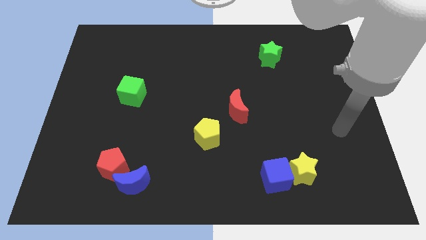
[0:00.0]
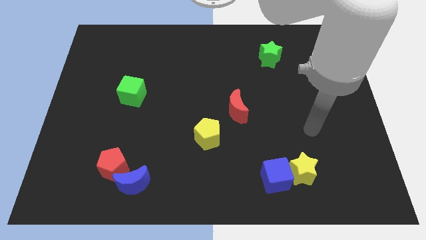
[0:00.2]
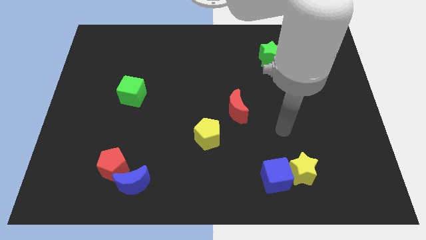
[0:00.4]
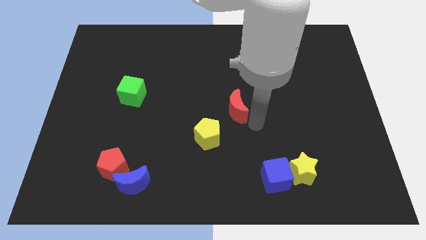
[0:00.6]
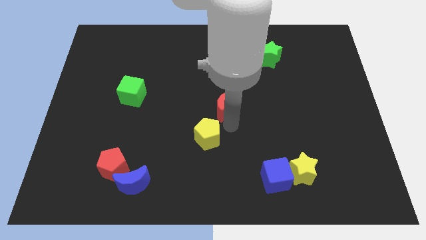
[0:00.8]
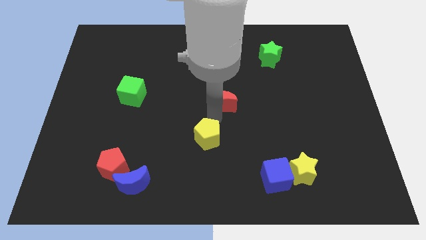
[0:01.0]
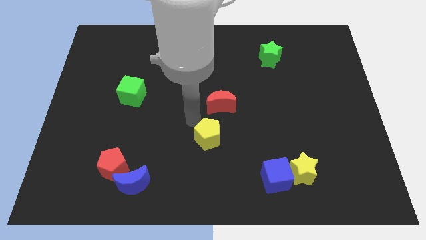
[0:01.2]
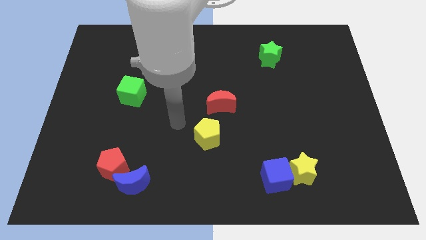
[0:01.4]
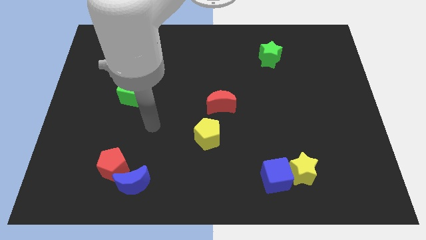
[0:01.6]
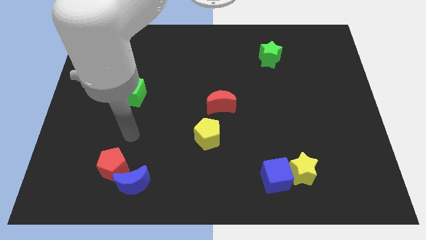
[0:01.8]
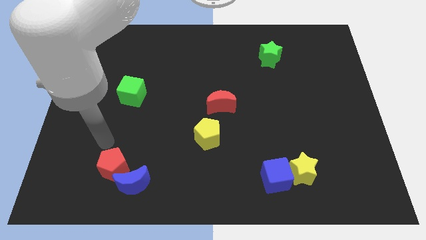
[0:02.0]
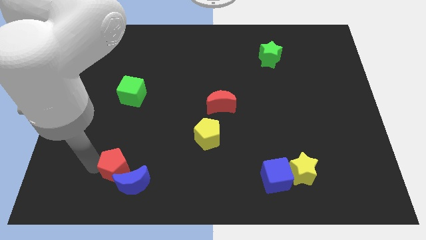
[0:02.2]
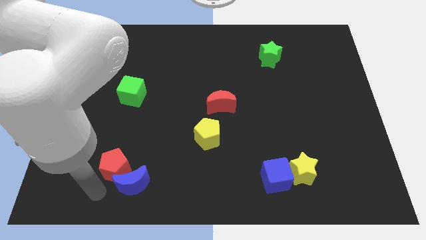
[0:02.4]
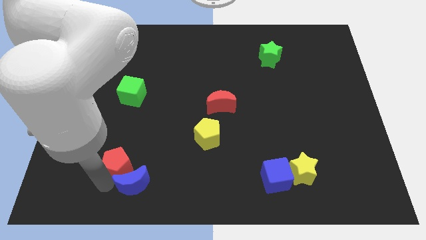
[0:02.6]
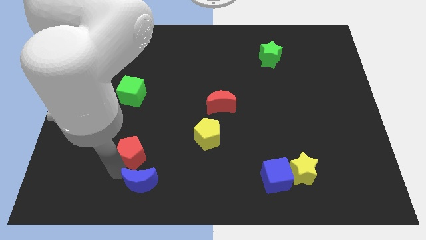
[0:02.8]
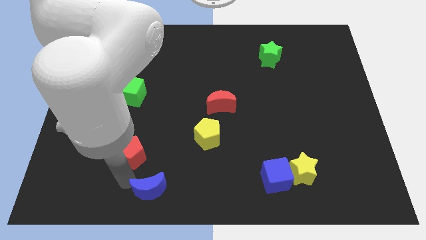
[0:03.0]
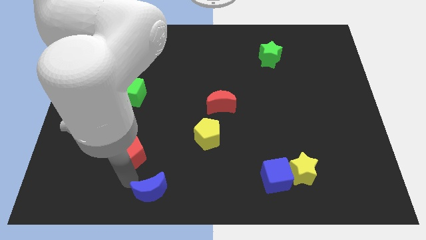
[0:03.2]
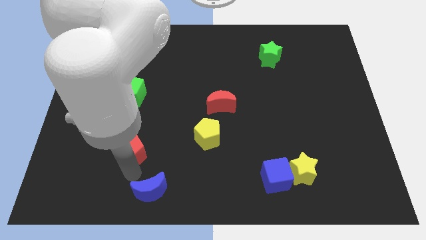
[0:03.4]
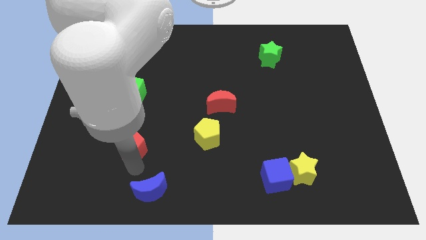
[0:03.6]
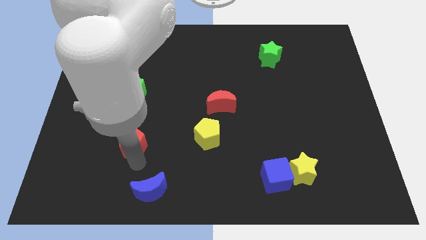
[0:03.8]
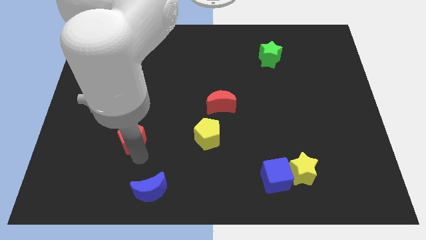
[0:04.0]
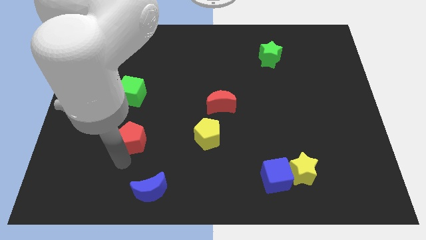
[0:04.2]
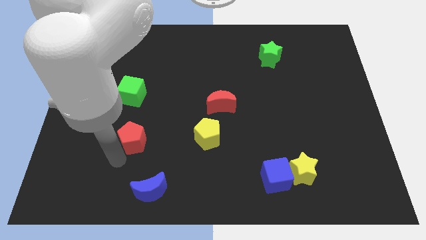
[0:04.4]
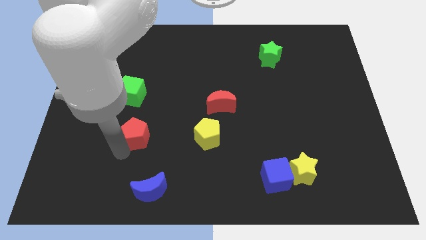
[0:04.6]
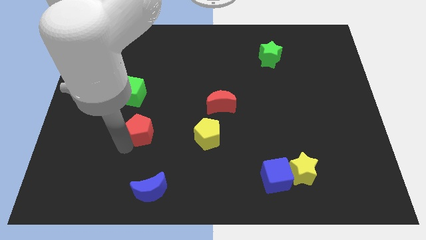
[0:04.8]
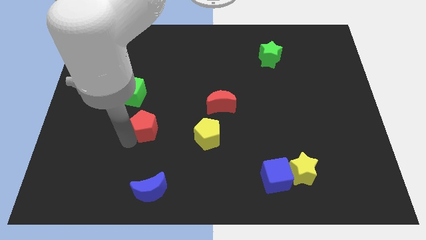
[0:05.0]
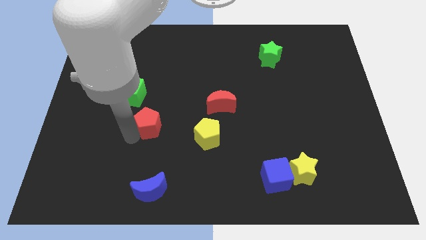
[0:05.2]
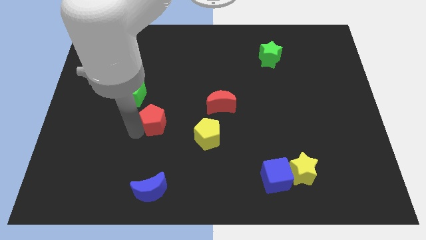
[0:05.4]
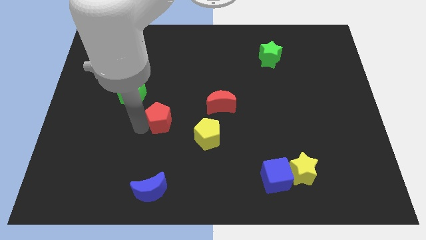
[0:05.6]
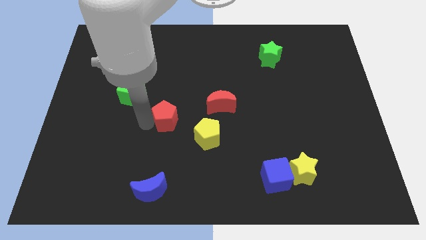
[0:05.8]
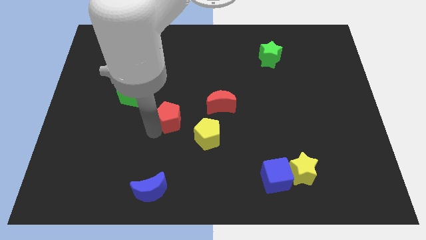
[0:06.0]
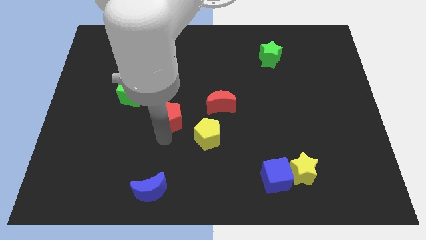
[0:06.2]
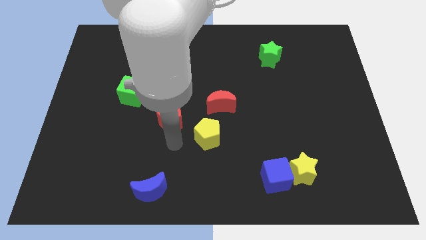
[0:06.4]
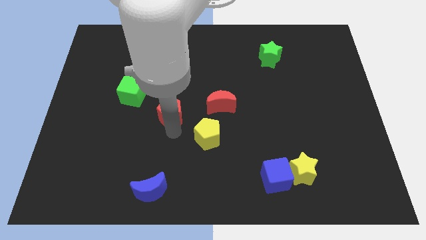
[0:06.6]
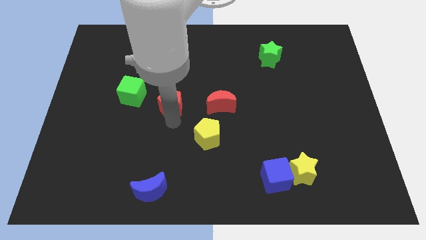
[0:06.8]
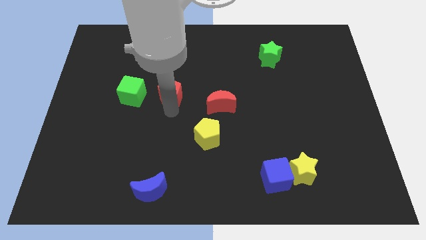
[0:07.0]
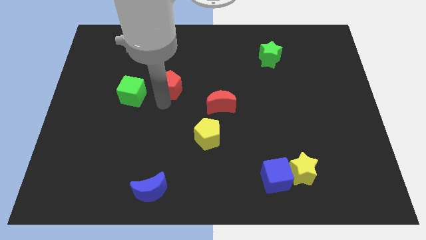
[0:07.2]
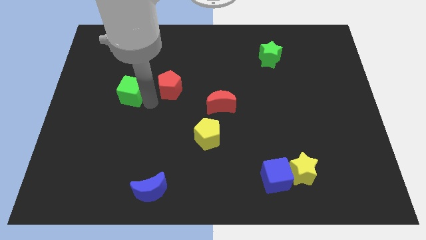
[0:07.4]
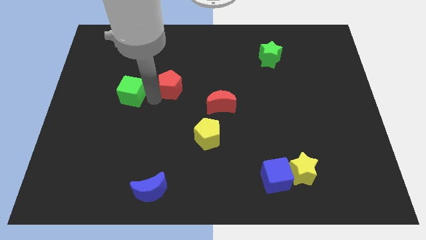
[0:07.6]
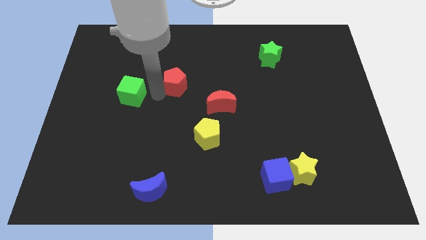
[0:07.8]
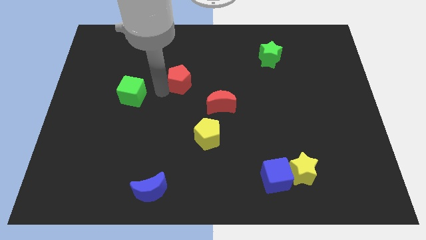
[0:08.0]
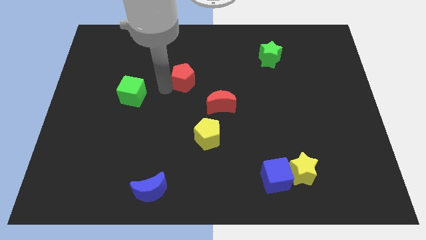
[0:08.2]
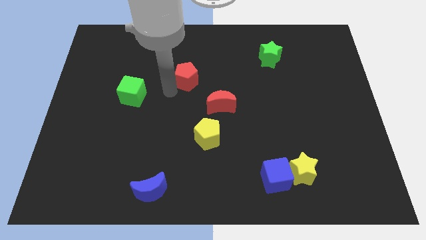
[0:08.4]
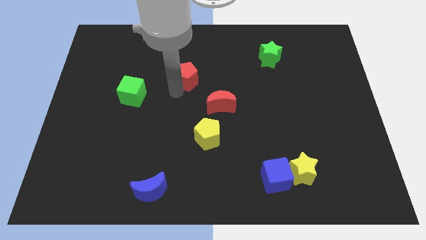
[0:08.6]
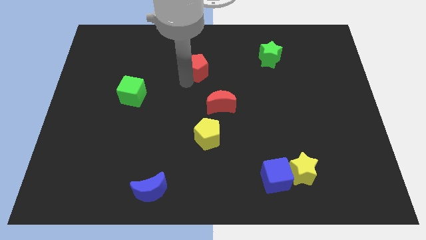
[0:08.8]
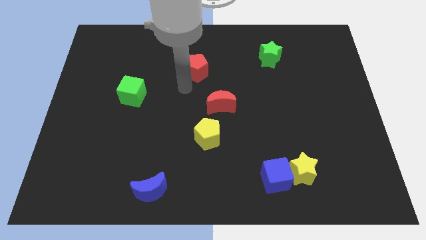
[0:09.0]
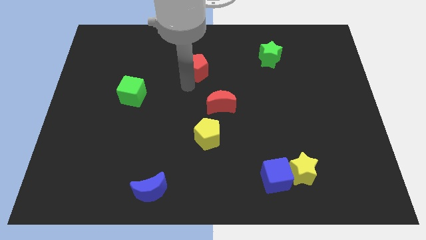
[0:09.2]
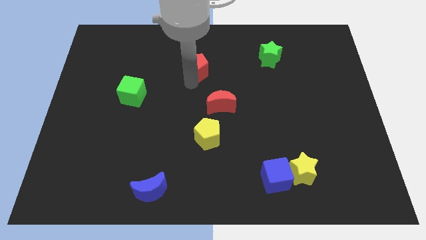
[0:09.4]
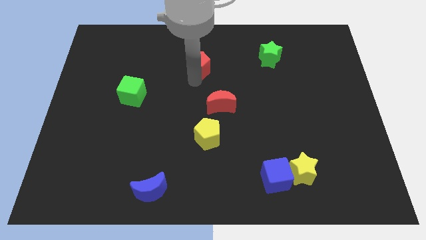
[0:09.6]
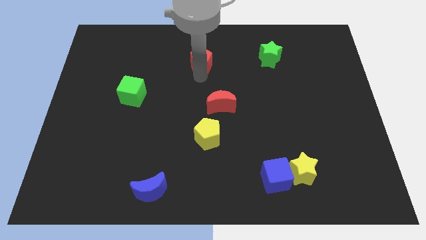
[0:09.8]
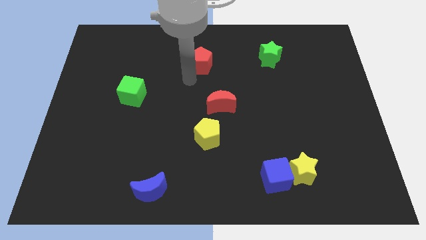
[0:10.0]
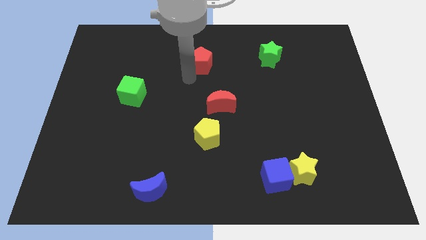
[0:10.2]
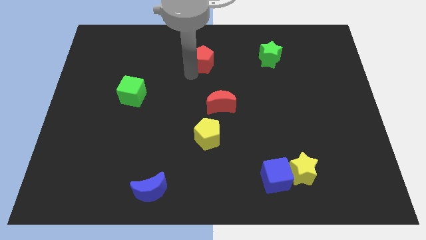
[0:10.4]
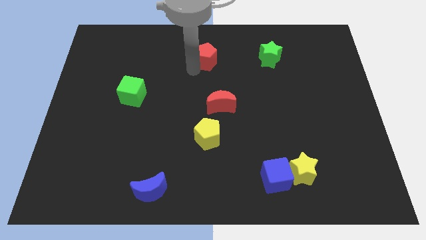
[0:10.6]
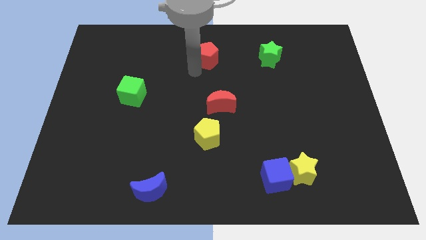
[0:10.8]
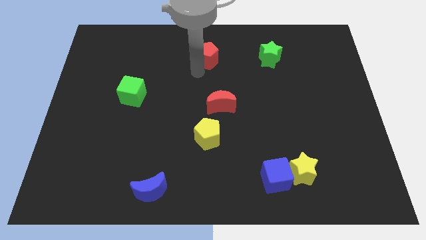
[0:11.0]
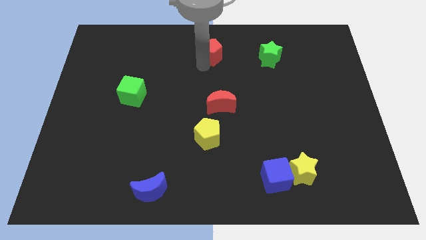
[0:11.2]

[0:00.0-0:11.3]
move the red pentagon to the top side

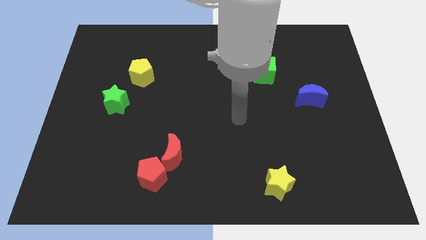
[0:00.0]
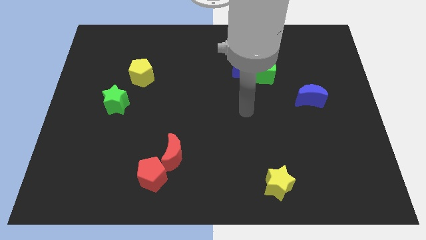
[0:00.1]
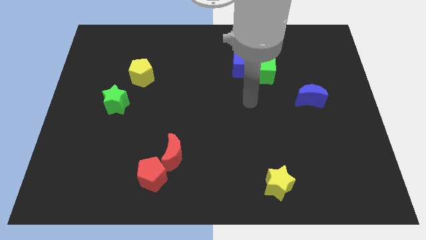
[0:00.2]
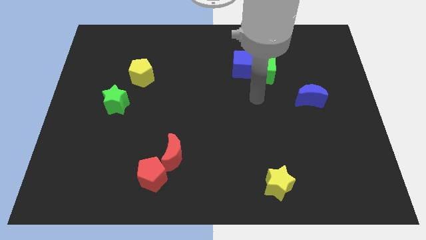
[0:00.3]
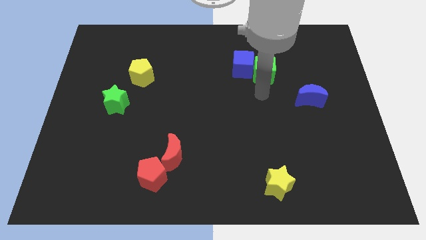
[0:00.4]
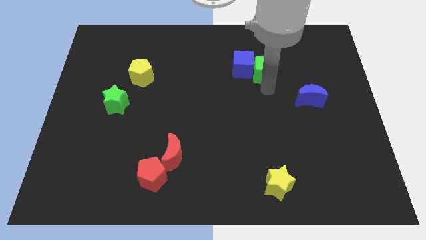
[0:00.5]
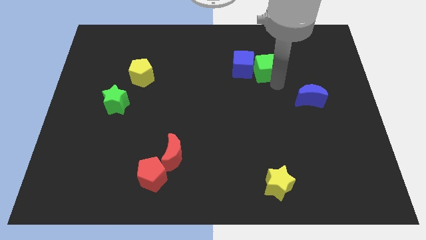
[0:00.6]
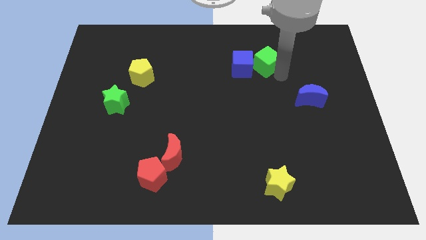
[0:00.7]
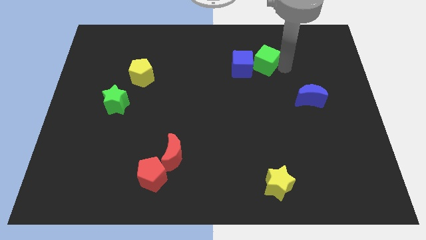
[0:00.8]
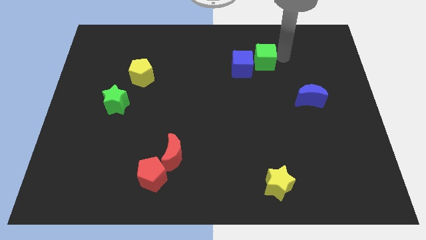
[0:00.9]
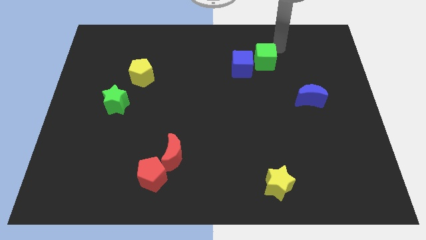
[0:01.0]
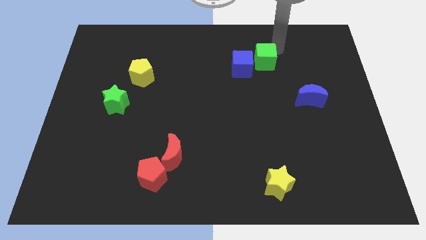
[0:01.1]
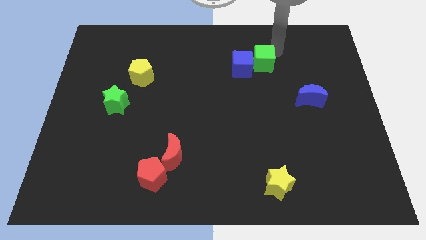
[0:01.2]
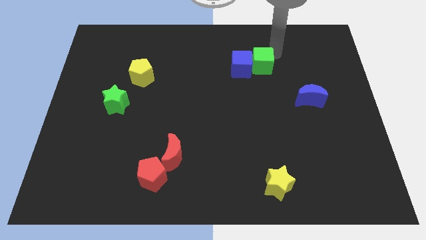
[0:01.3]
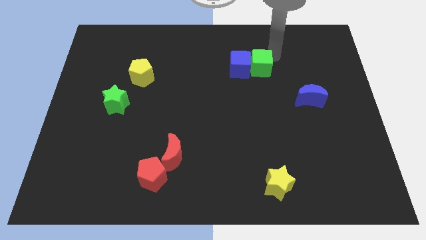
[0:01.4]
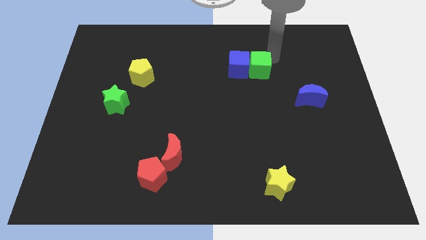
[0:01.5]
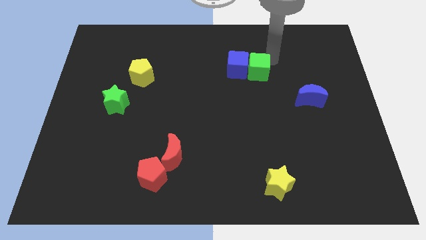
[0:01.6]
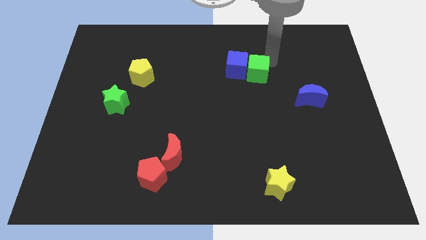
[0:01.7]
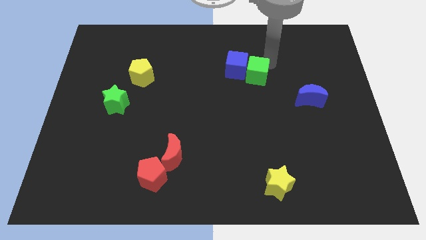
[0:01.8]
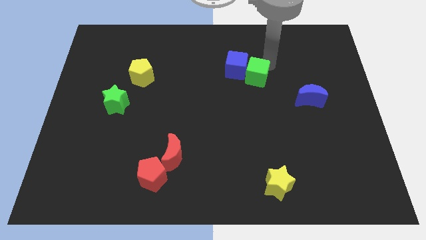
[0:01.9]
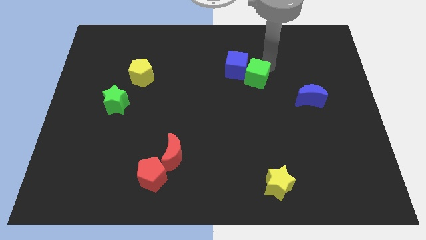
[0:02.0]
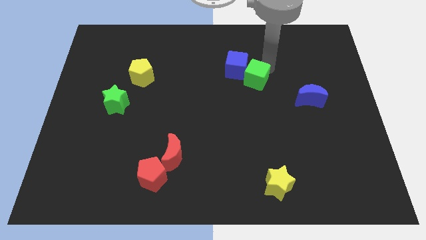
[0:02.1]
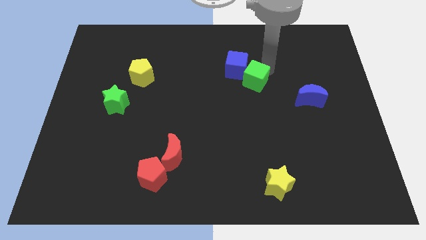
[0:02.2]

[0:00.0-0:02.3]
move the green cube to the middle
